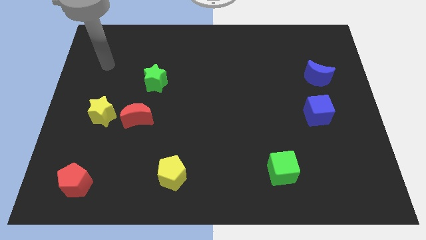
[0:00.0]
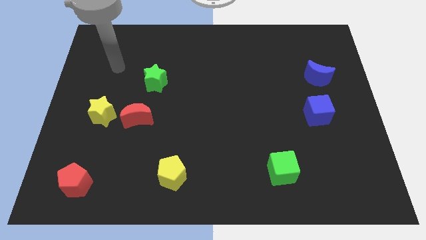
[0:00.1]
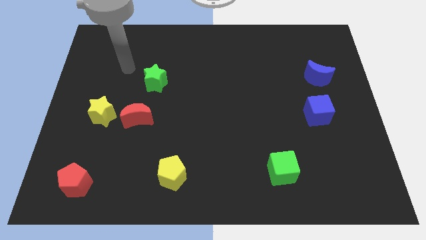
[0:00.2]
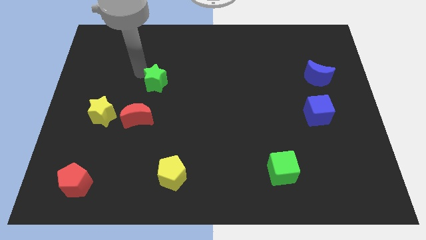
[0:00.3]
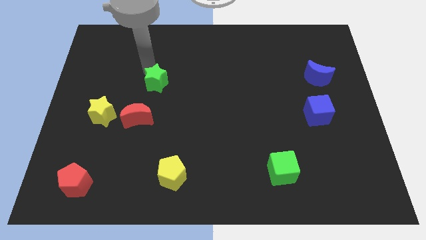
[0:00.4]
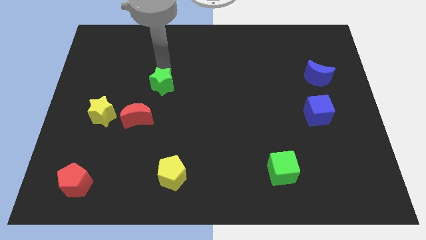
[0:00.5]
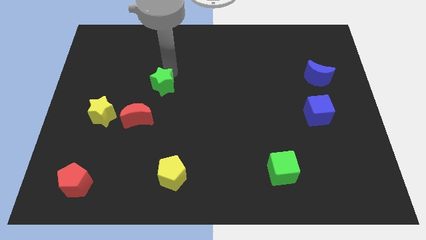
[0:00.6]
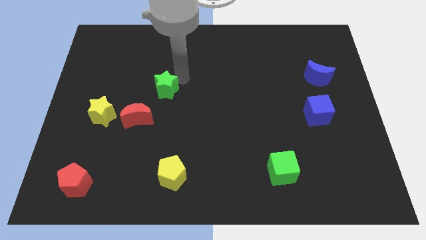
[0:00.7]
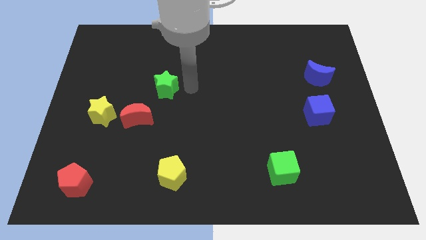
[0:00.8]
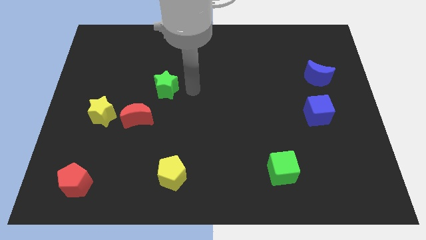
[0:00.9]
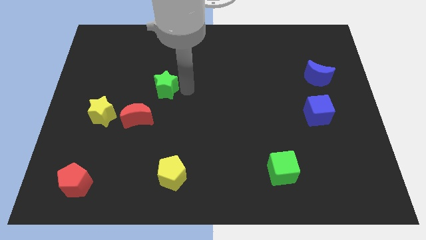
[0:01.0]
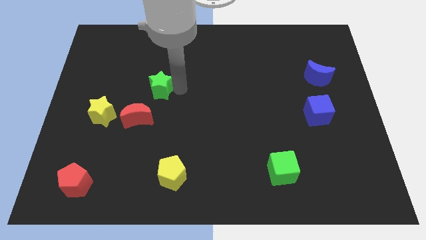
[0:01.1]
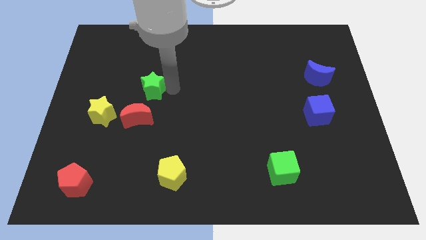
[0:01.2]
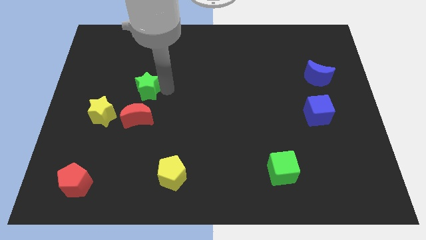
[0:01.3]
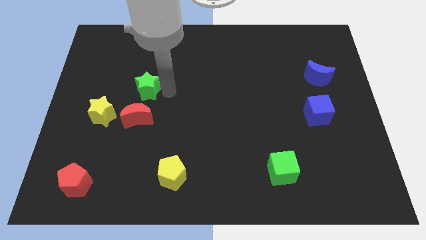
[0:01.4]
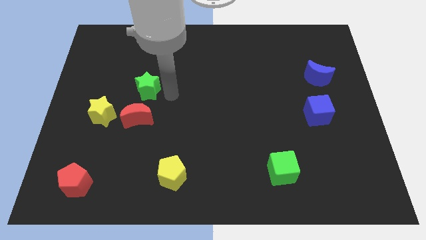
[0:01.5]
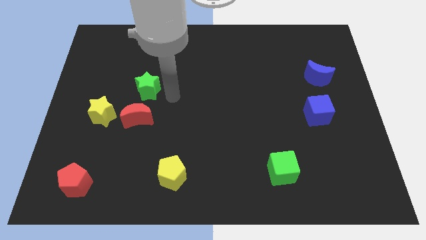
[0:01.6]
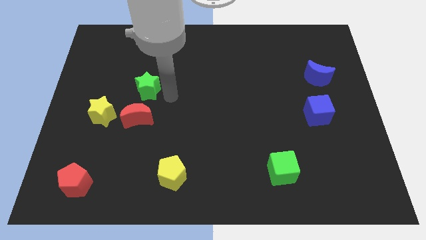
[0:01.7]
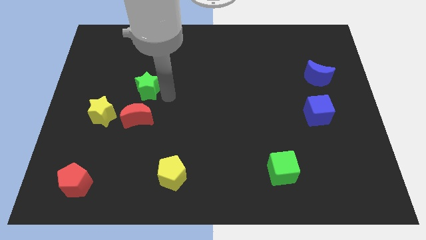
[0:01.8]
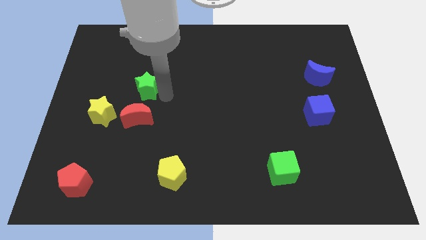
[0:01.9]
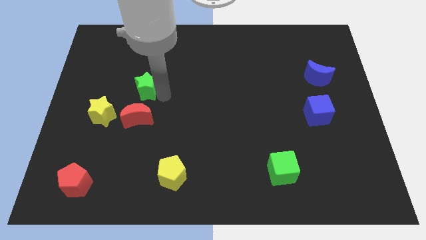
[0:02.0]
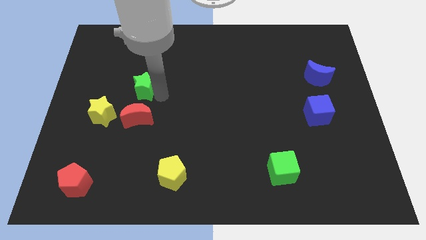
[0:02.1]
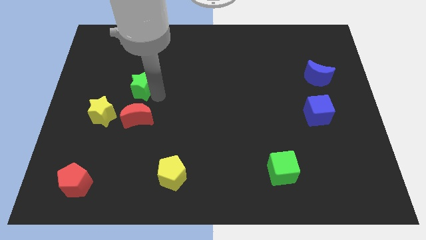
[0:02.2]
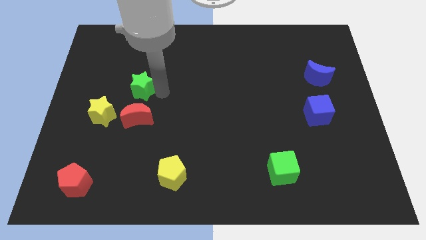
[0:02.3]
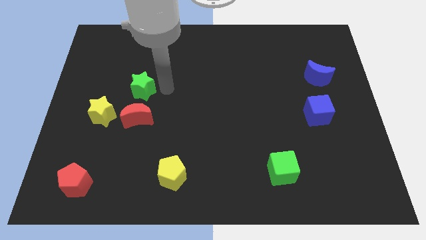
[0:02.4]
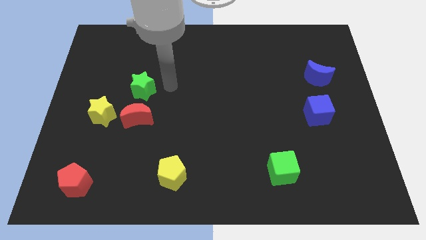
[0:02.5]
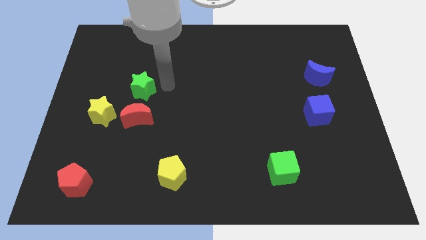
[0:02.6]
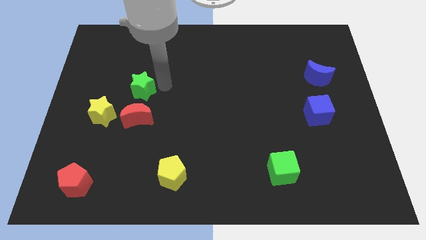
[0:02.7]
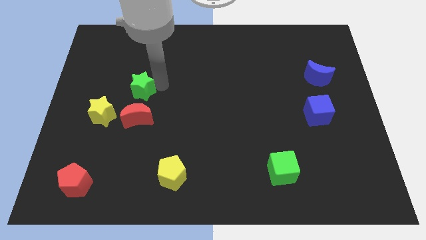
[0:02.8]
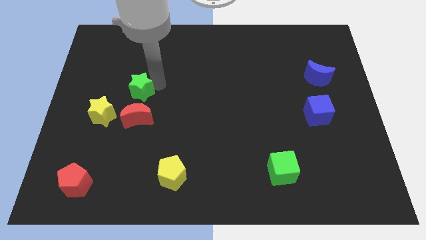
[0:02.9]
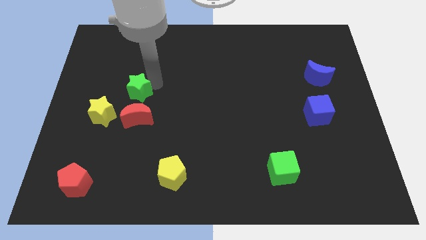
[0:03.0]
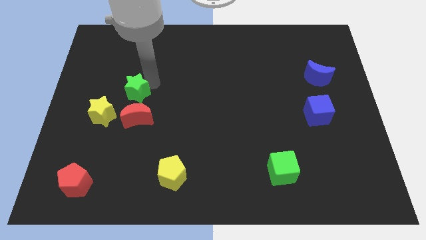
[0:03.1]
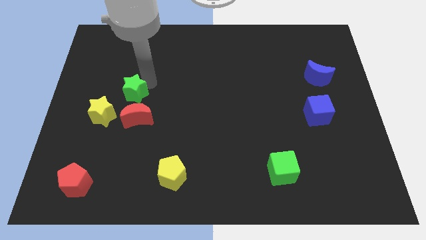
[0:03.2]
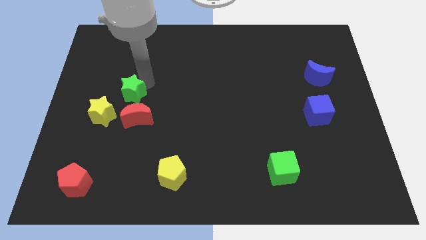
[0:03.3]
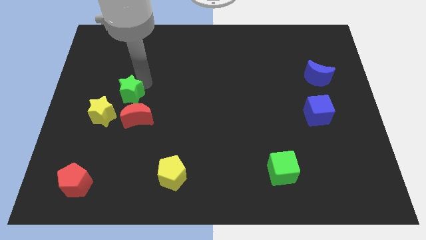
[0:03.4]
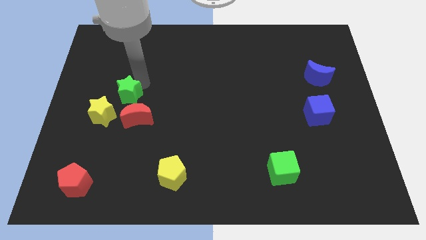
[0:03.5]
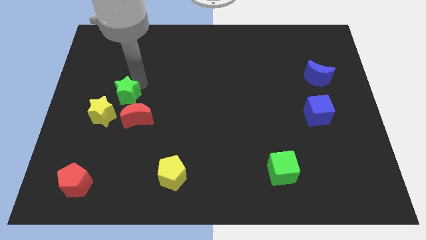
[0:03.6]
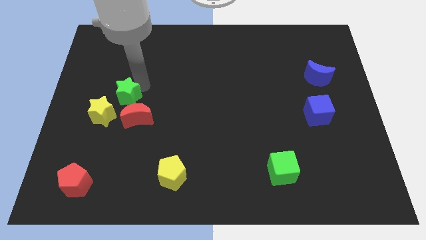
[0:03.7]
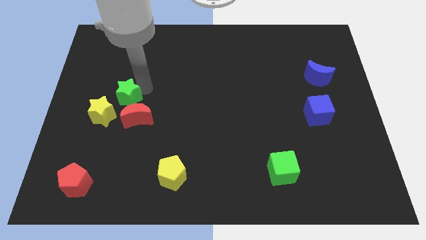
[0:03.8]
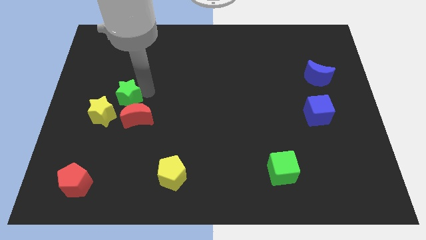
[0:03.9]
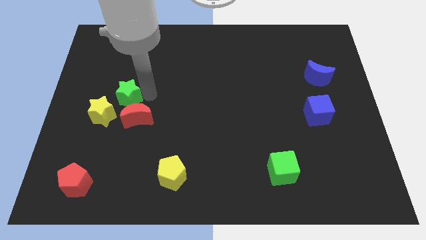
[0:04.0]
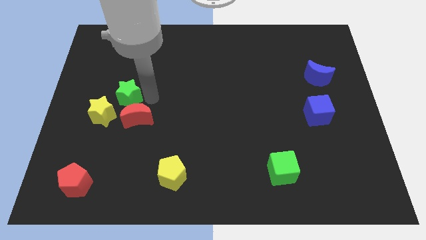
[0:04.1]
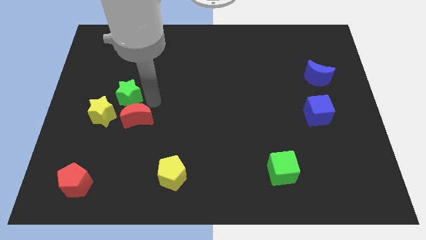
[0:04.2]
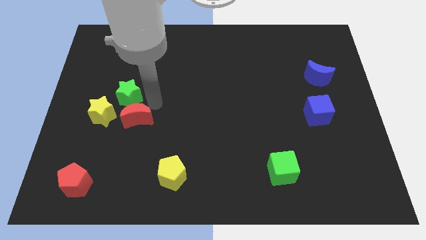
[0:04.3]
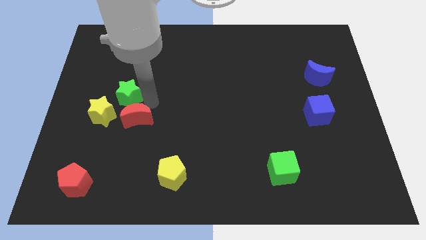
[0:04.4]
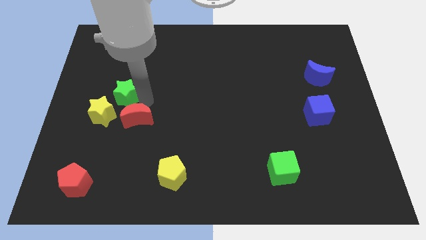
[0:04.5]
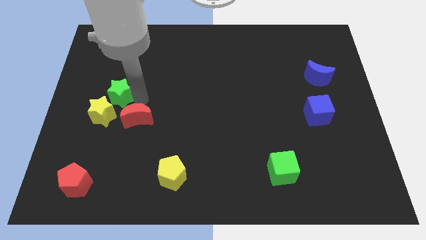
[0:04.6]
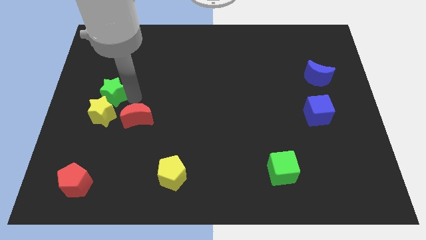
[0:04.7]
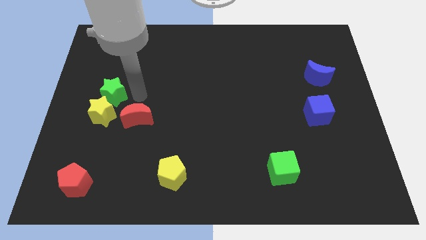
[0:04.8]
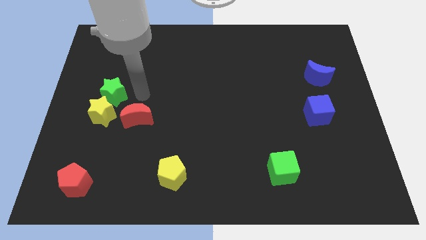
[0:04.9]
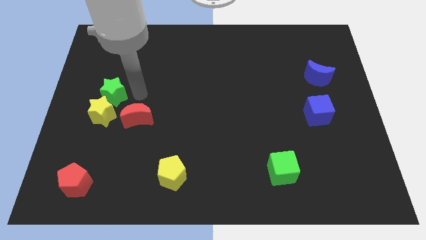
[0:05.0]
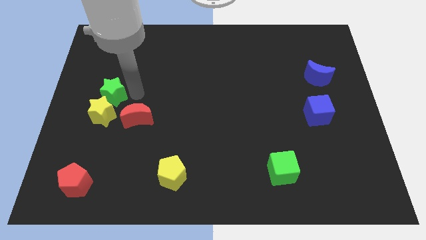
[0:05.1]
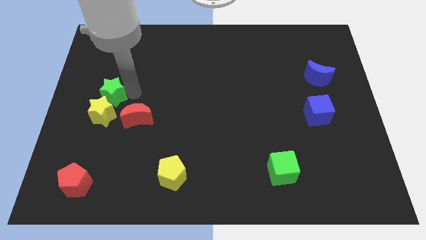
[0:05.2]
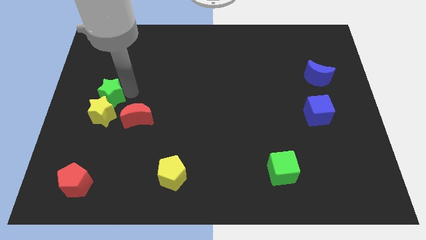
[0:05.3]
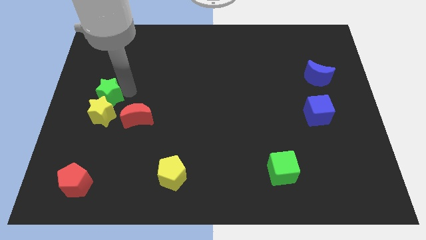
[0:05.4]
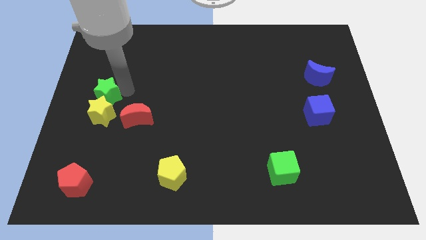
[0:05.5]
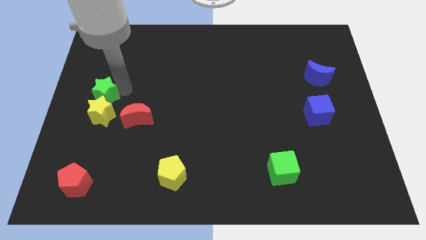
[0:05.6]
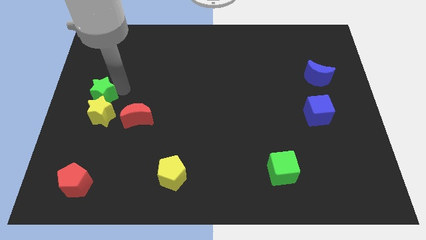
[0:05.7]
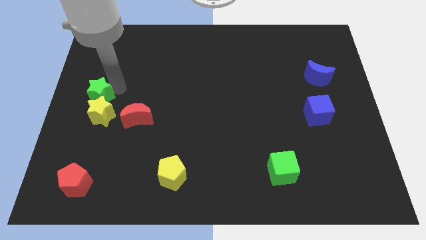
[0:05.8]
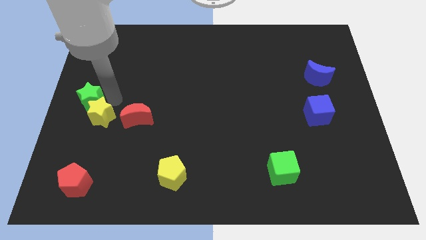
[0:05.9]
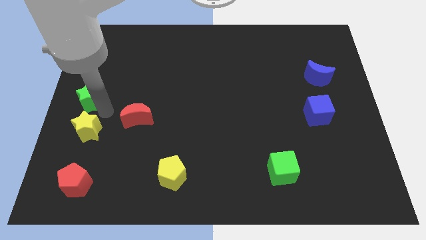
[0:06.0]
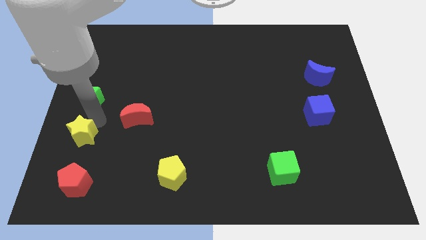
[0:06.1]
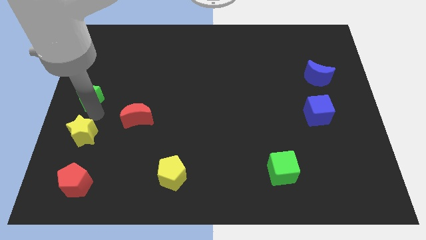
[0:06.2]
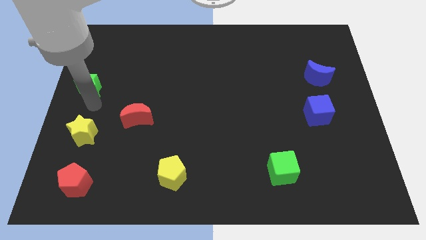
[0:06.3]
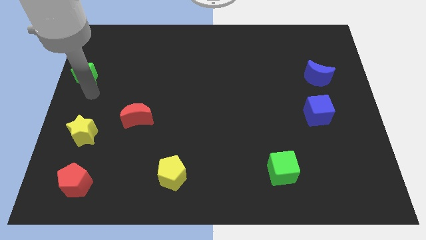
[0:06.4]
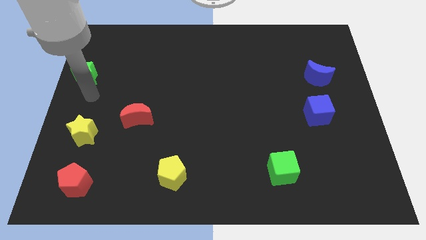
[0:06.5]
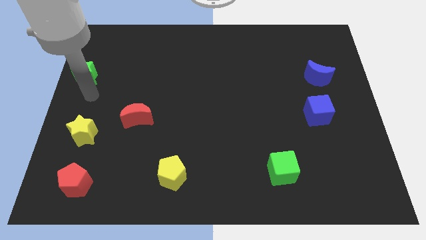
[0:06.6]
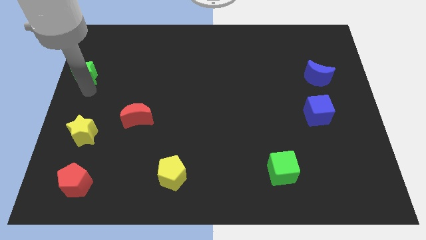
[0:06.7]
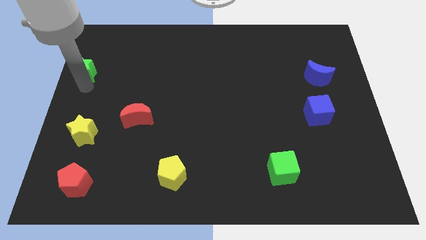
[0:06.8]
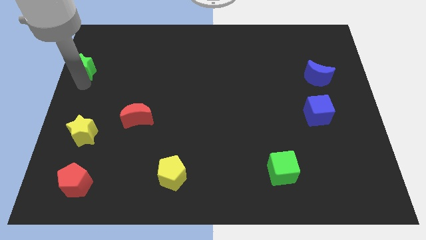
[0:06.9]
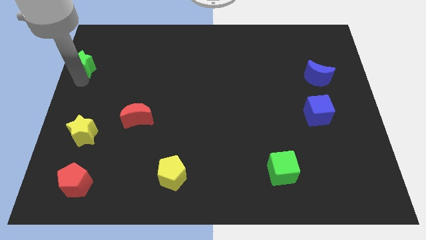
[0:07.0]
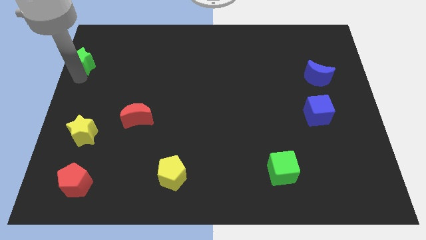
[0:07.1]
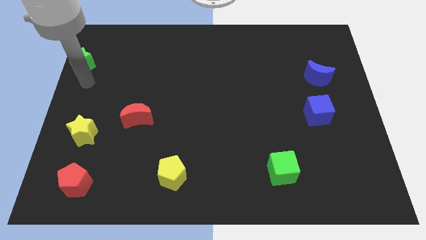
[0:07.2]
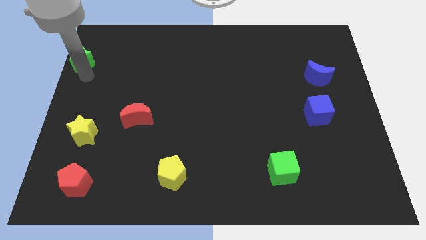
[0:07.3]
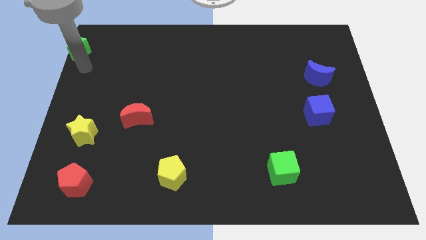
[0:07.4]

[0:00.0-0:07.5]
slide the green star to the top left corner
